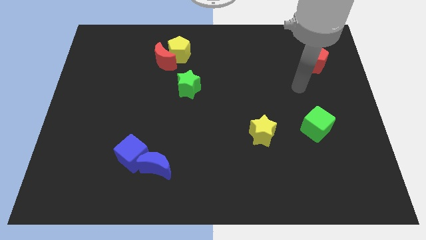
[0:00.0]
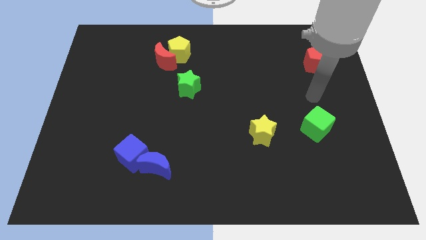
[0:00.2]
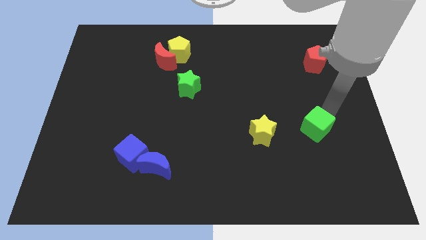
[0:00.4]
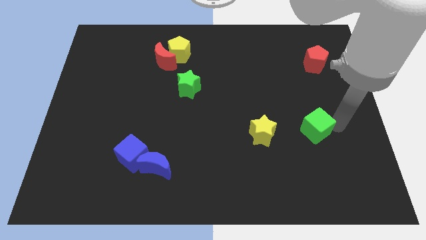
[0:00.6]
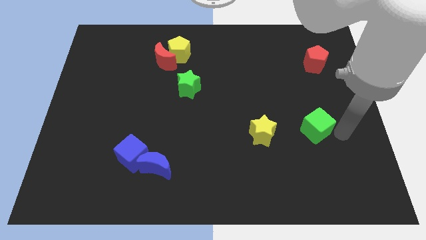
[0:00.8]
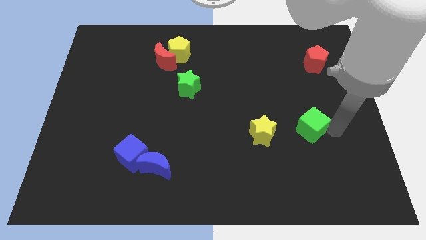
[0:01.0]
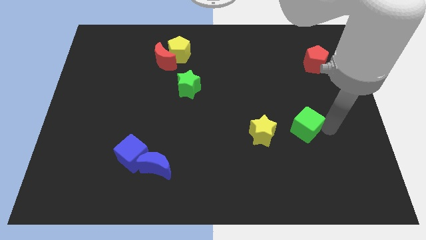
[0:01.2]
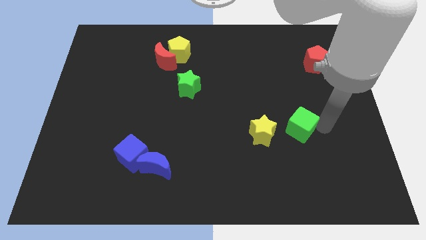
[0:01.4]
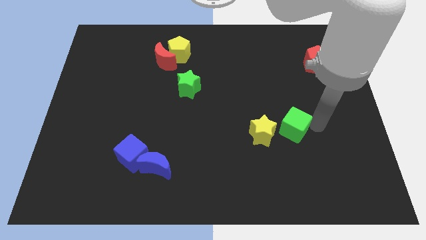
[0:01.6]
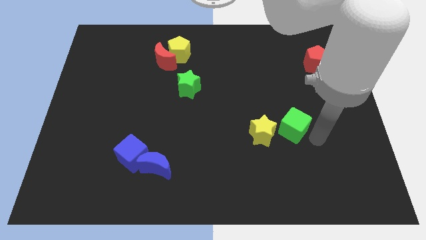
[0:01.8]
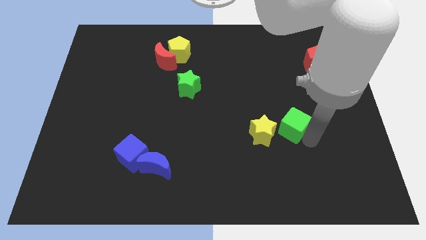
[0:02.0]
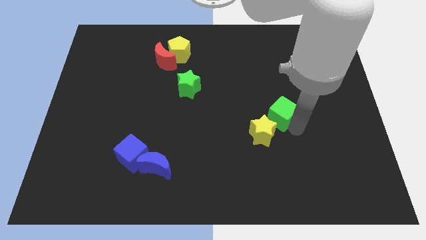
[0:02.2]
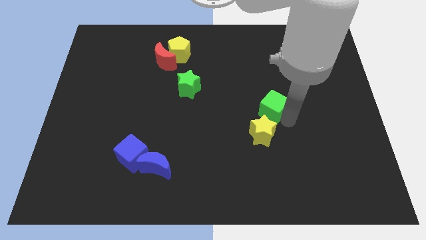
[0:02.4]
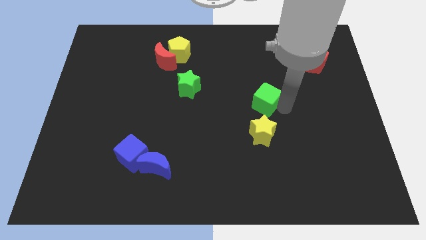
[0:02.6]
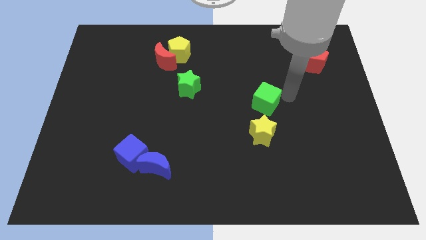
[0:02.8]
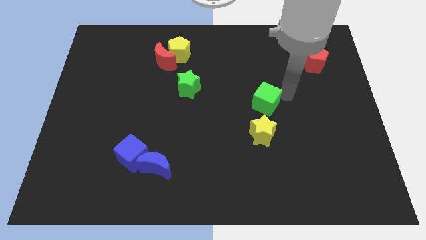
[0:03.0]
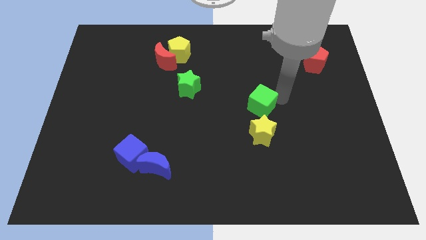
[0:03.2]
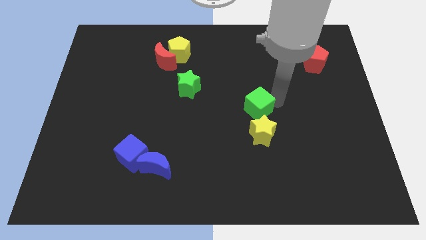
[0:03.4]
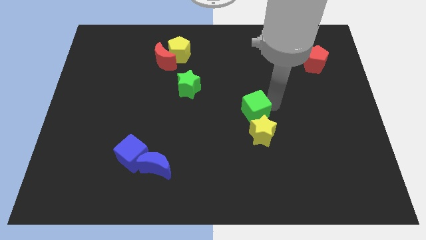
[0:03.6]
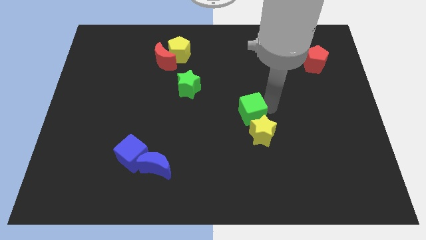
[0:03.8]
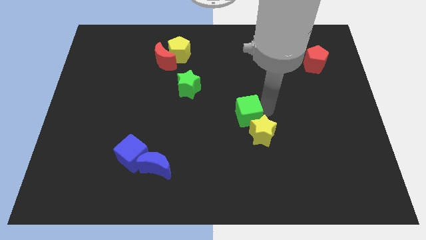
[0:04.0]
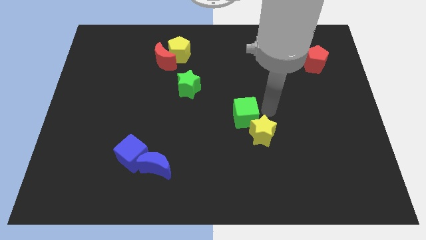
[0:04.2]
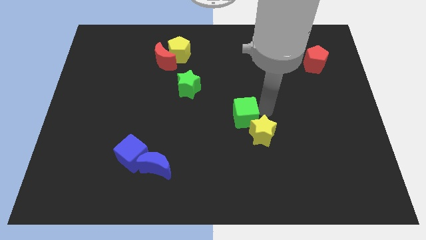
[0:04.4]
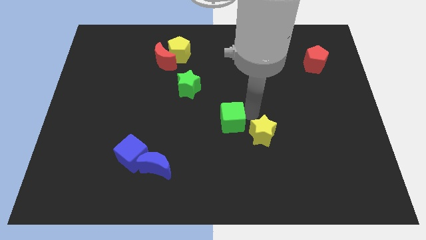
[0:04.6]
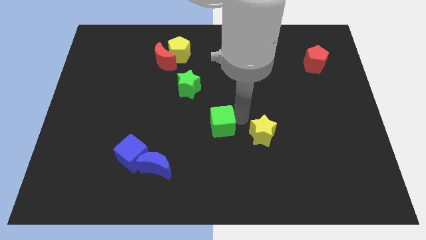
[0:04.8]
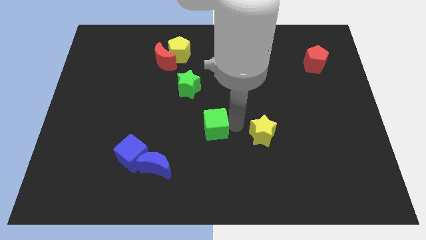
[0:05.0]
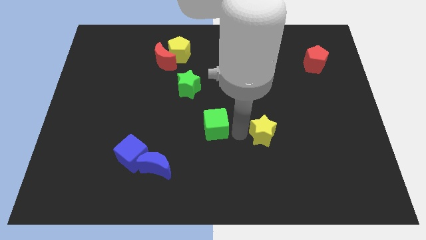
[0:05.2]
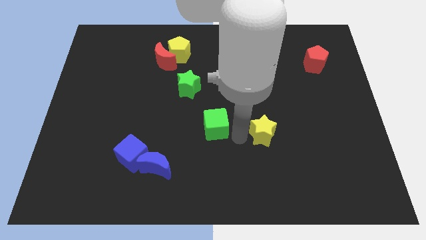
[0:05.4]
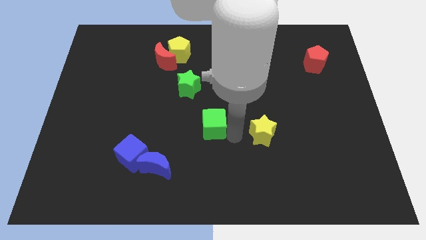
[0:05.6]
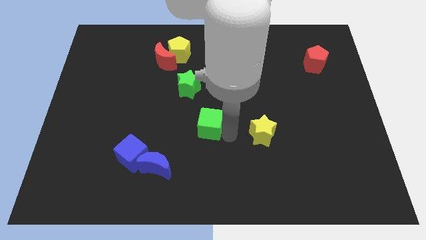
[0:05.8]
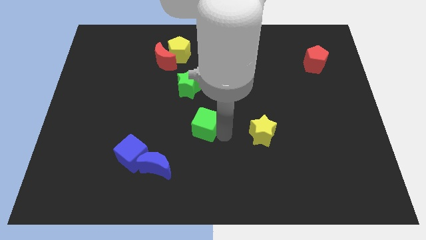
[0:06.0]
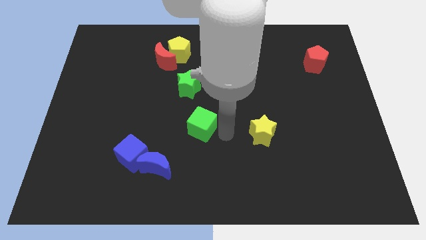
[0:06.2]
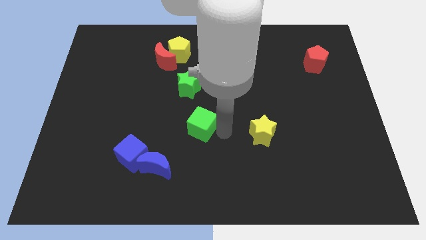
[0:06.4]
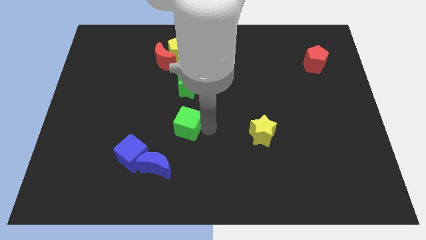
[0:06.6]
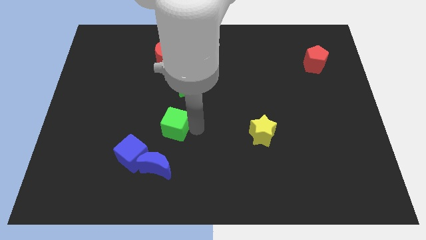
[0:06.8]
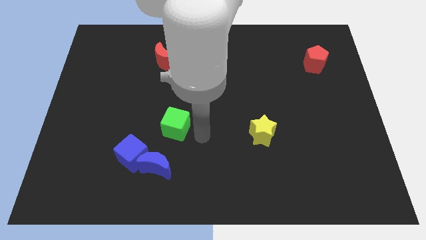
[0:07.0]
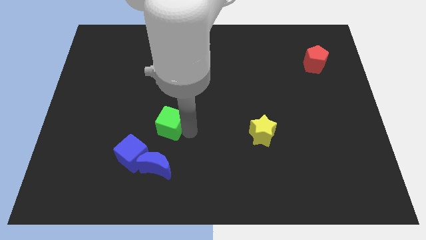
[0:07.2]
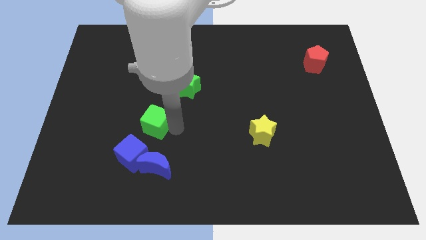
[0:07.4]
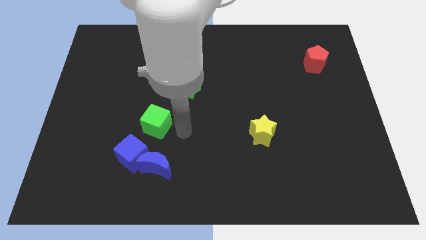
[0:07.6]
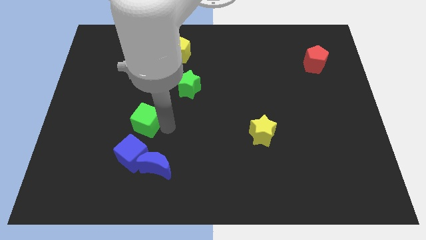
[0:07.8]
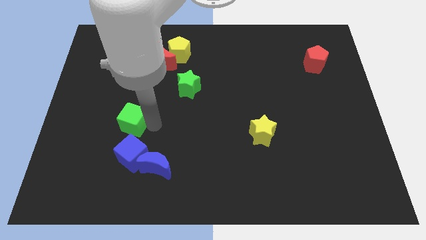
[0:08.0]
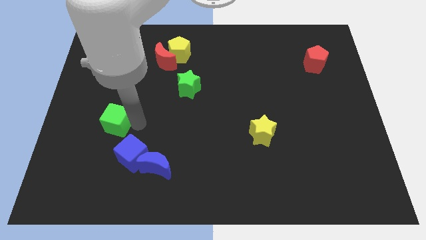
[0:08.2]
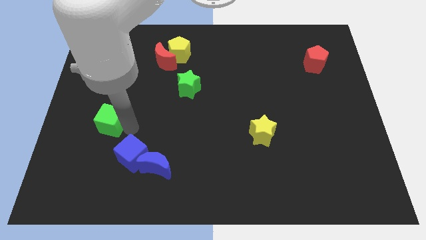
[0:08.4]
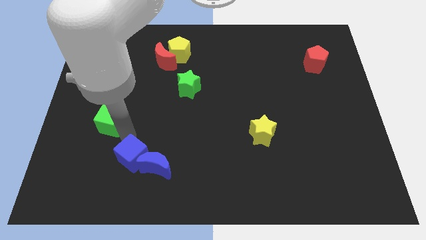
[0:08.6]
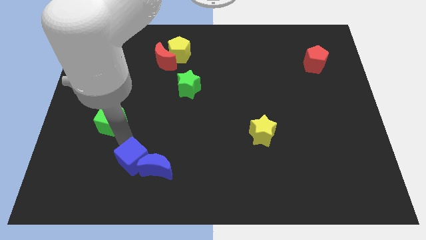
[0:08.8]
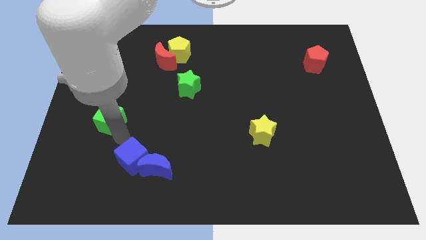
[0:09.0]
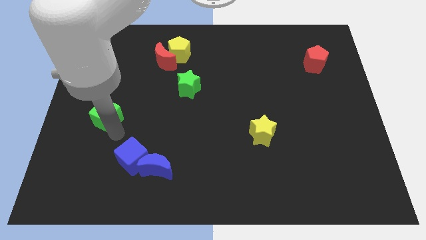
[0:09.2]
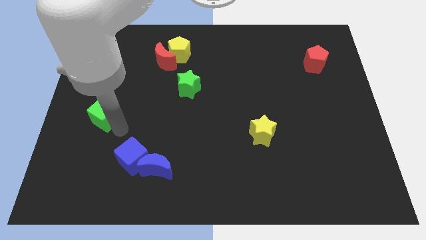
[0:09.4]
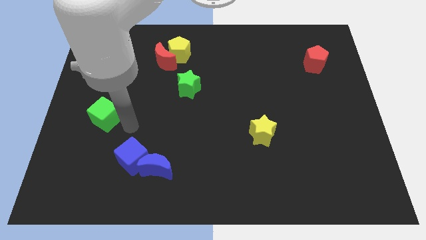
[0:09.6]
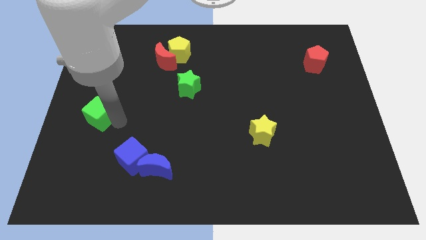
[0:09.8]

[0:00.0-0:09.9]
slide the green cube to the left side of the board

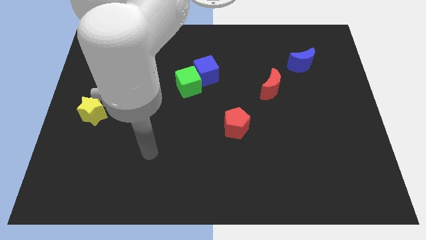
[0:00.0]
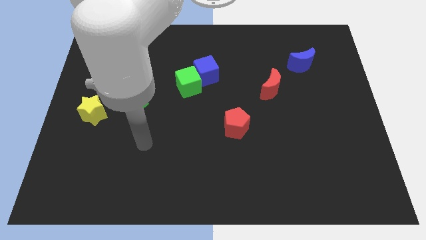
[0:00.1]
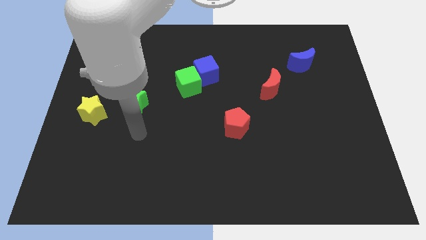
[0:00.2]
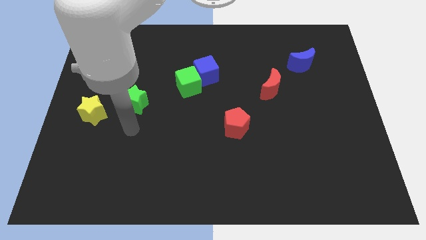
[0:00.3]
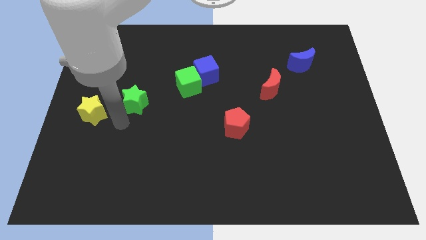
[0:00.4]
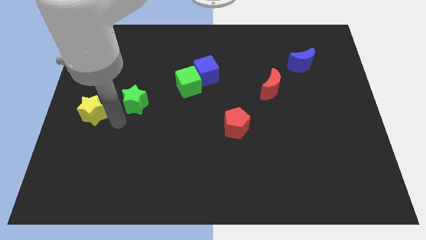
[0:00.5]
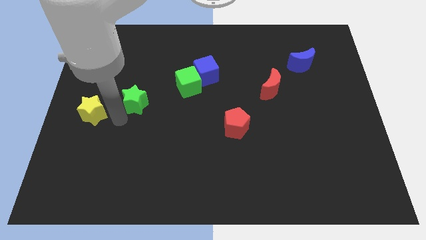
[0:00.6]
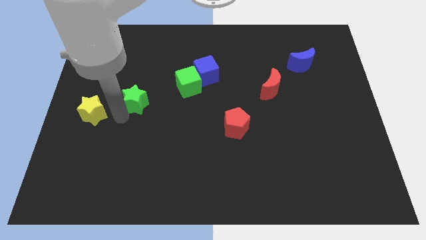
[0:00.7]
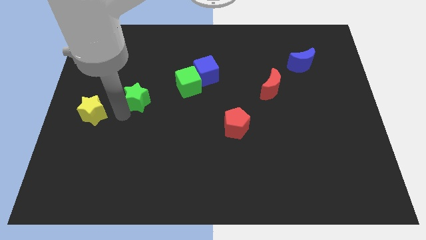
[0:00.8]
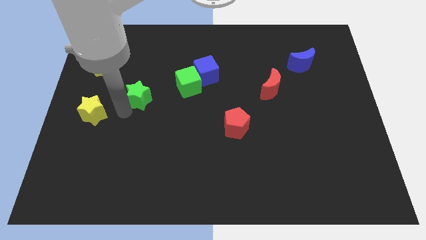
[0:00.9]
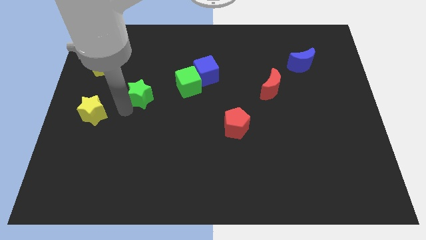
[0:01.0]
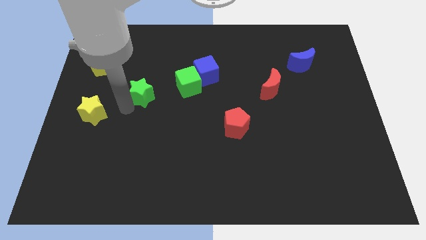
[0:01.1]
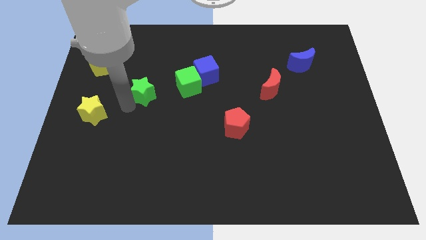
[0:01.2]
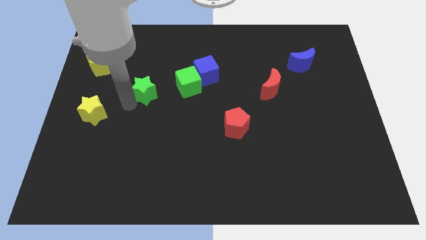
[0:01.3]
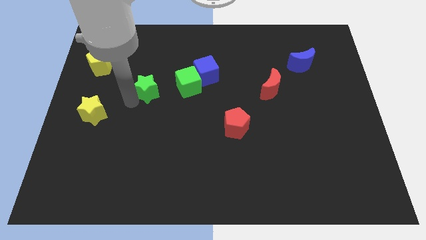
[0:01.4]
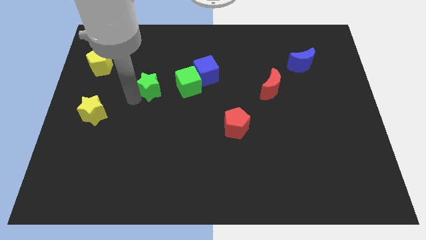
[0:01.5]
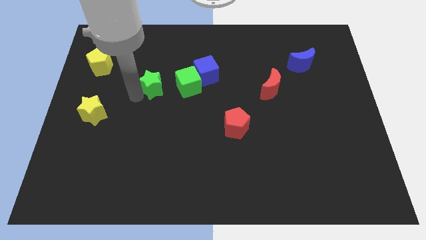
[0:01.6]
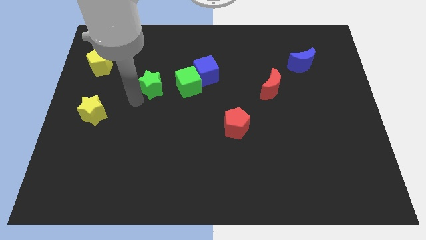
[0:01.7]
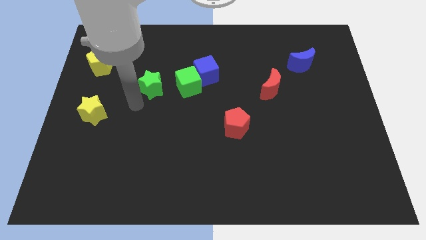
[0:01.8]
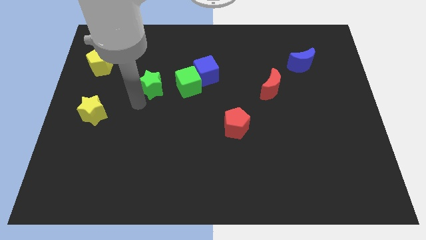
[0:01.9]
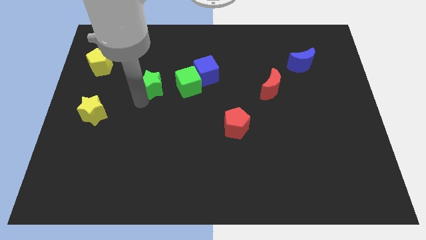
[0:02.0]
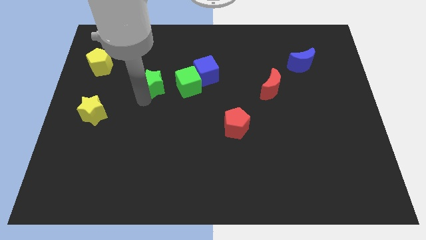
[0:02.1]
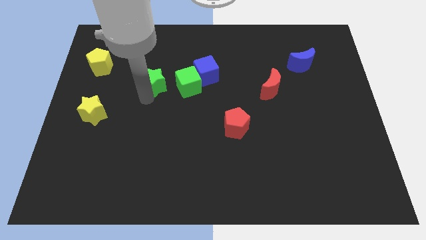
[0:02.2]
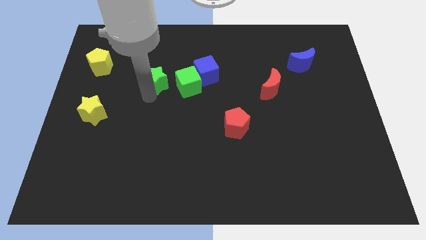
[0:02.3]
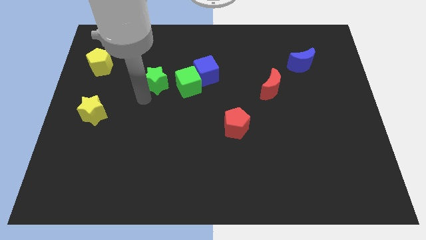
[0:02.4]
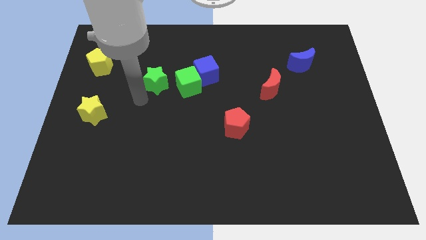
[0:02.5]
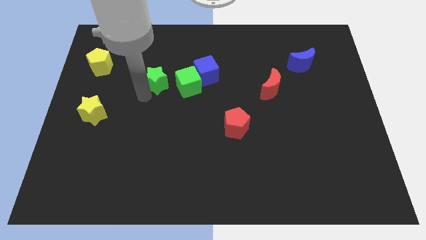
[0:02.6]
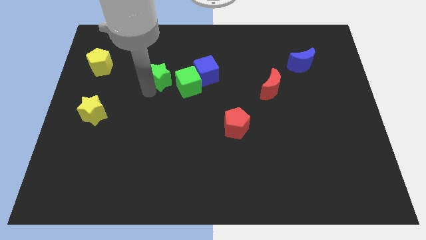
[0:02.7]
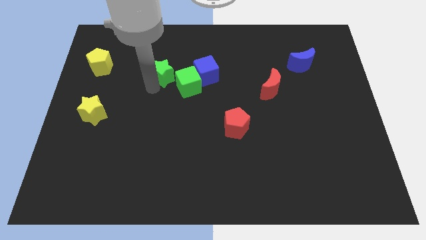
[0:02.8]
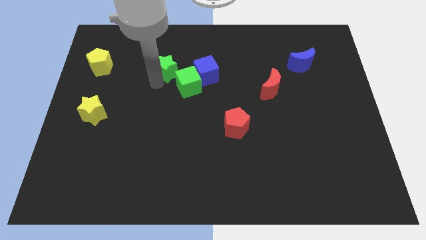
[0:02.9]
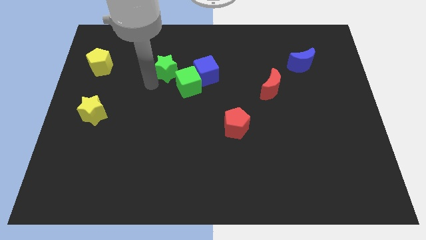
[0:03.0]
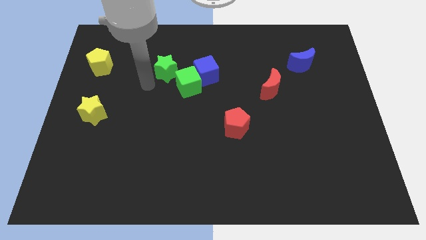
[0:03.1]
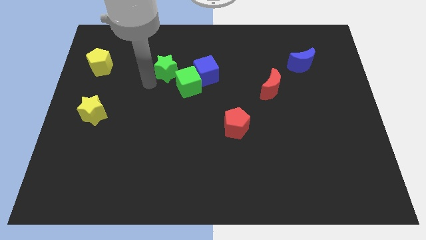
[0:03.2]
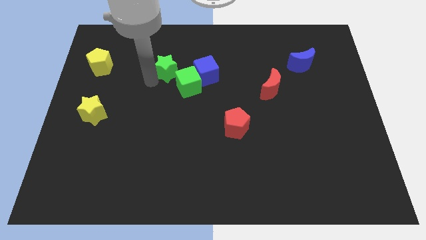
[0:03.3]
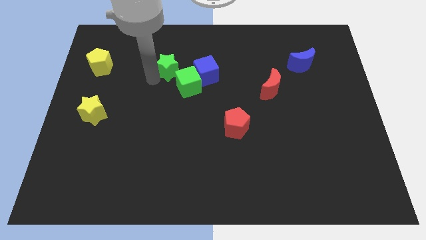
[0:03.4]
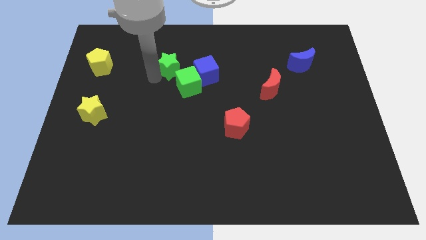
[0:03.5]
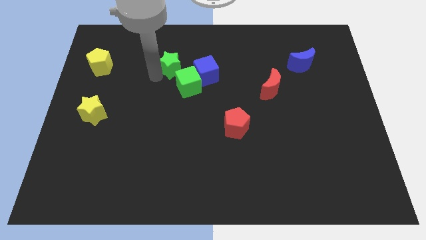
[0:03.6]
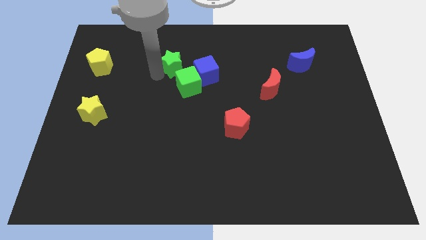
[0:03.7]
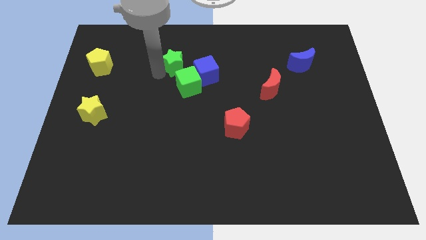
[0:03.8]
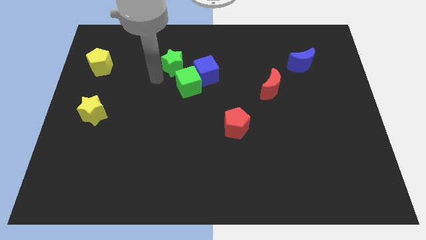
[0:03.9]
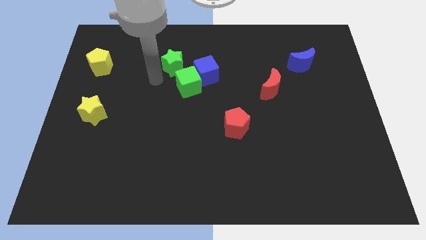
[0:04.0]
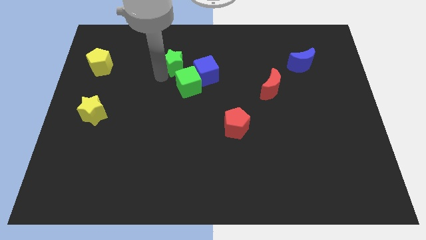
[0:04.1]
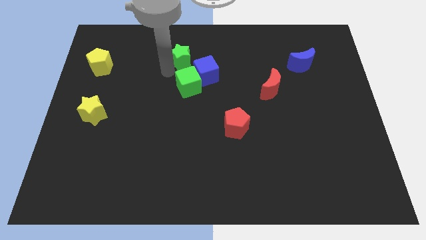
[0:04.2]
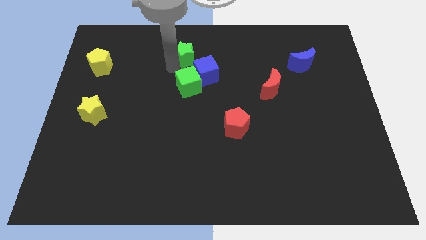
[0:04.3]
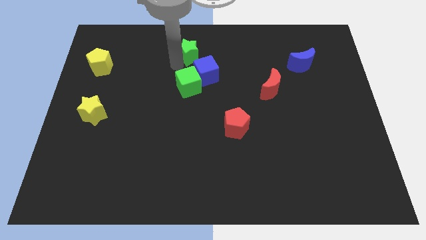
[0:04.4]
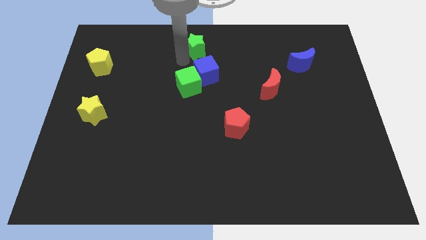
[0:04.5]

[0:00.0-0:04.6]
push the green star to the top side
